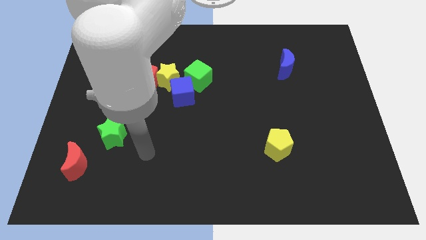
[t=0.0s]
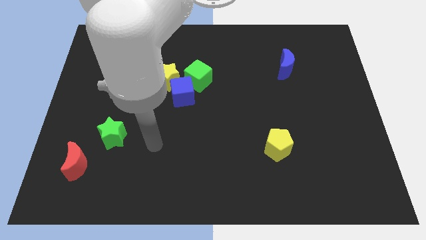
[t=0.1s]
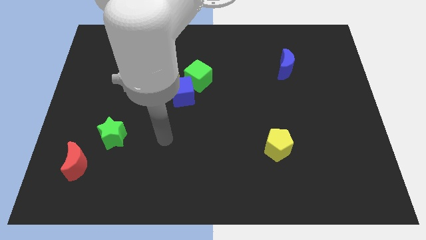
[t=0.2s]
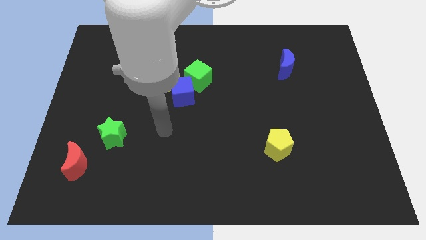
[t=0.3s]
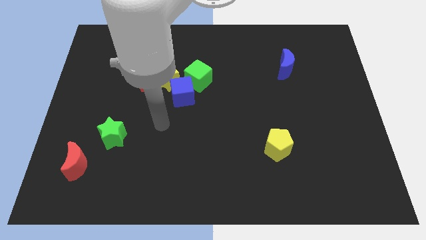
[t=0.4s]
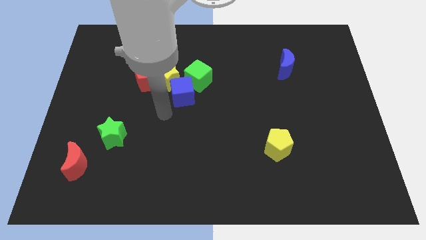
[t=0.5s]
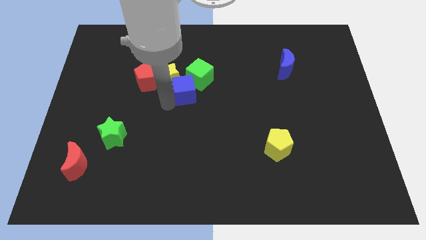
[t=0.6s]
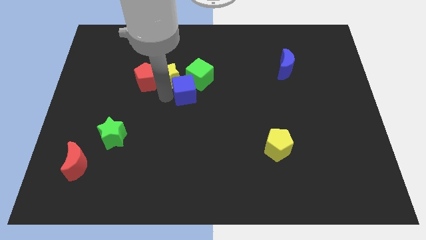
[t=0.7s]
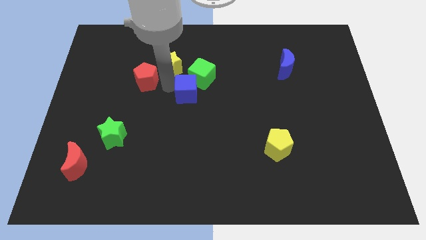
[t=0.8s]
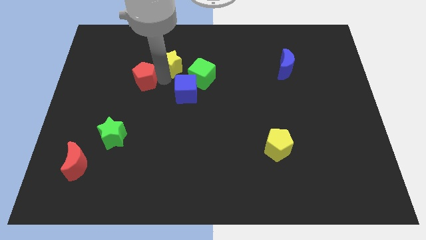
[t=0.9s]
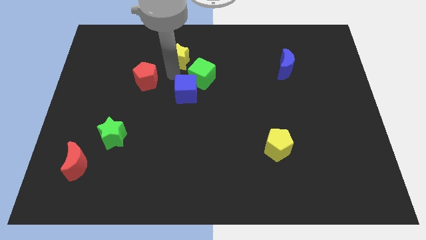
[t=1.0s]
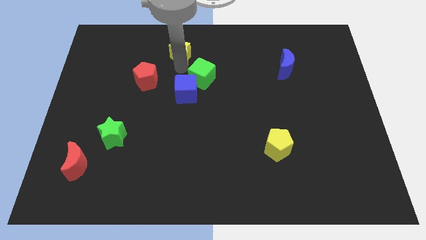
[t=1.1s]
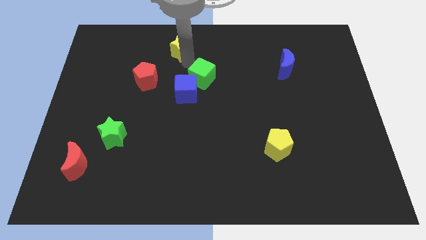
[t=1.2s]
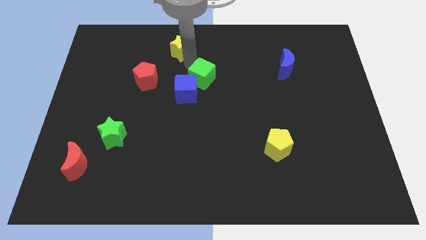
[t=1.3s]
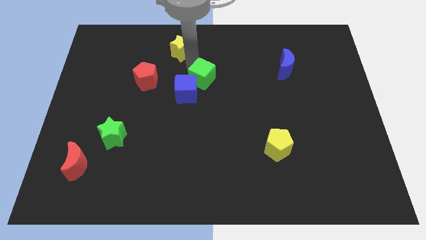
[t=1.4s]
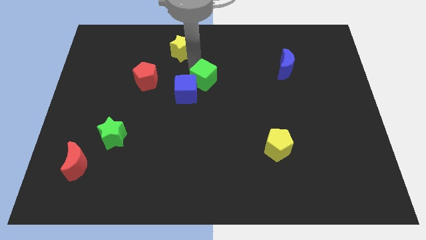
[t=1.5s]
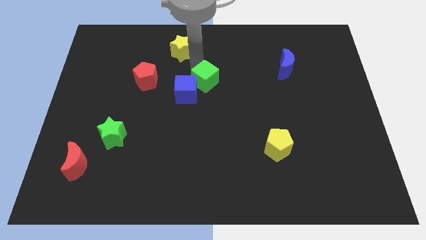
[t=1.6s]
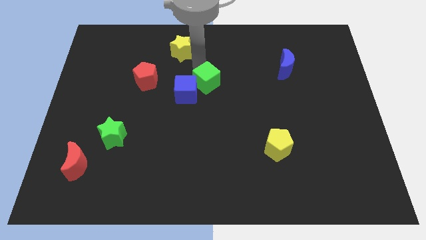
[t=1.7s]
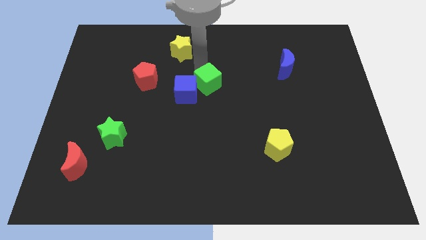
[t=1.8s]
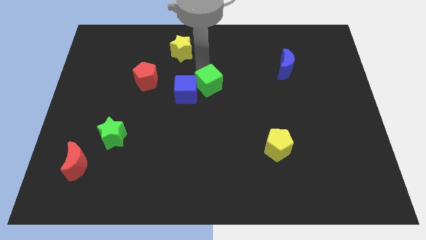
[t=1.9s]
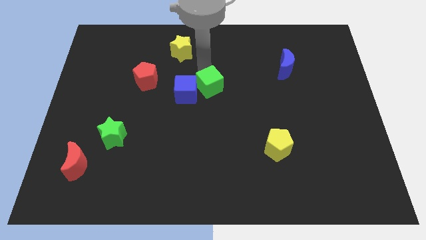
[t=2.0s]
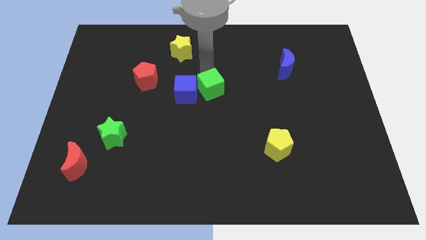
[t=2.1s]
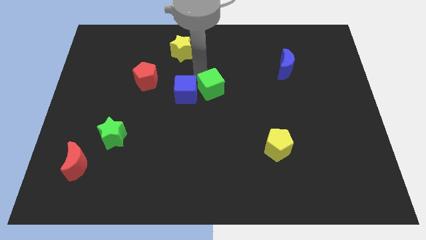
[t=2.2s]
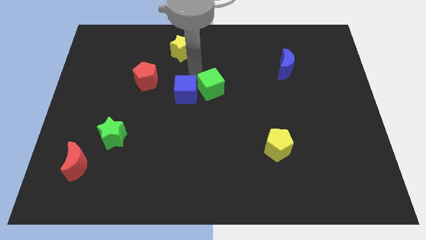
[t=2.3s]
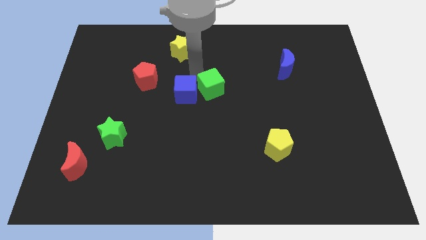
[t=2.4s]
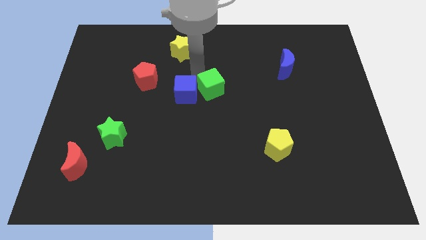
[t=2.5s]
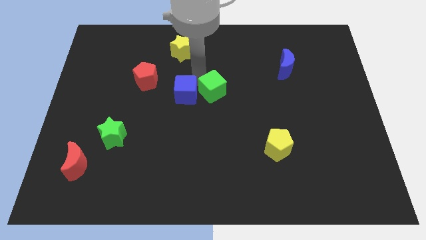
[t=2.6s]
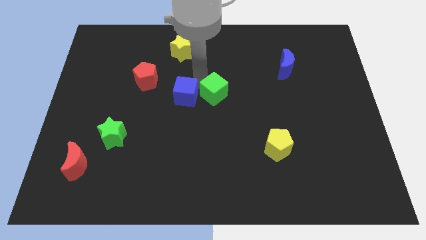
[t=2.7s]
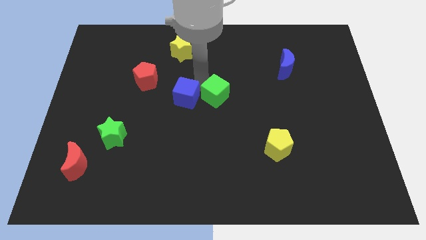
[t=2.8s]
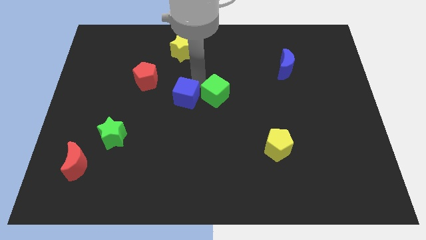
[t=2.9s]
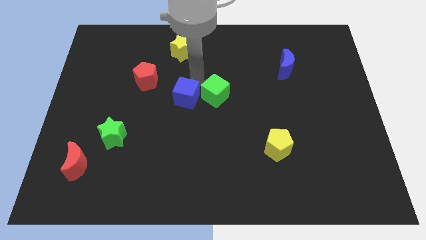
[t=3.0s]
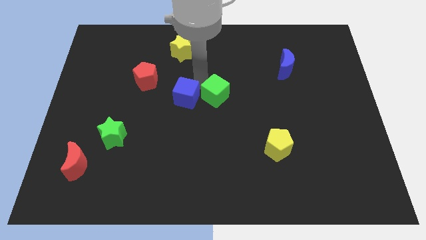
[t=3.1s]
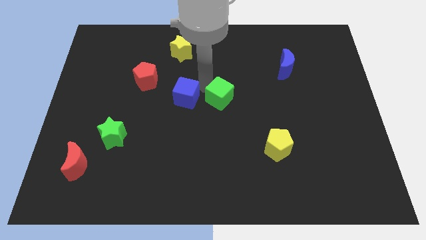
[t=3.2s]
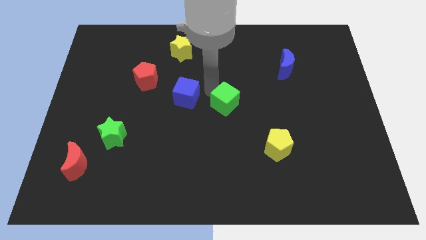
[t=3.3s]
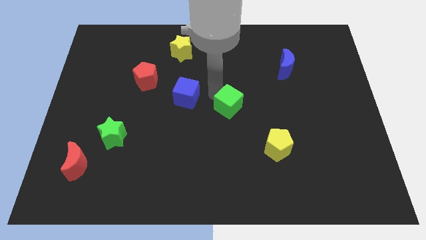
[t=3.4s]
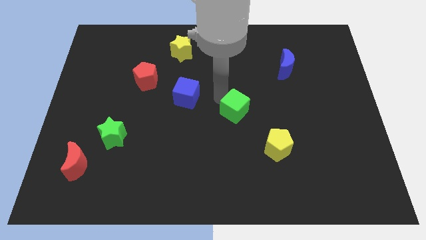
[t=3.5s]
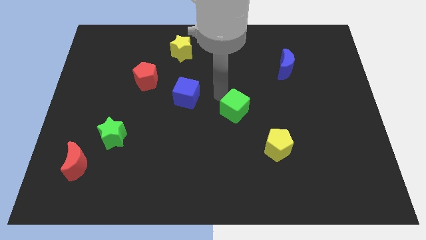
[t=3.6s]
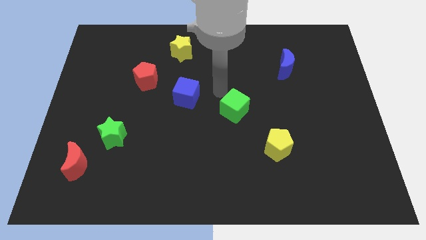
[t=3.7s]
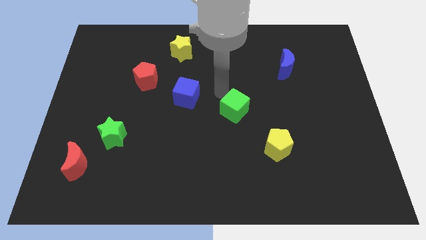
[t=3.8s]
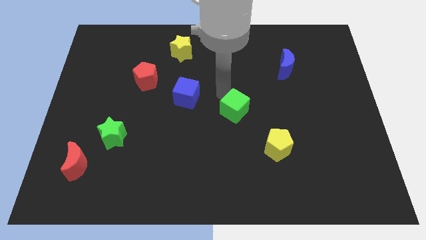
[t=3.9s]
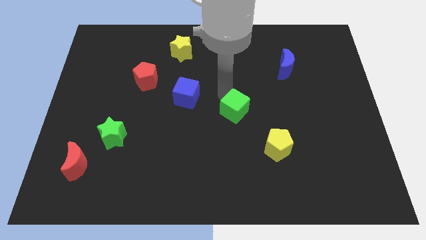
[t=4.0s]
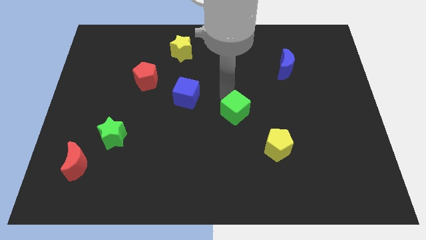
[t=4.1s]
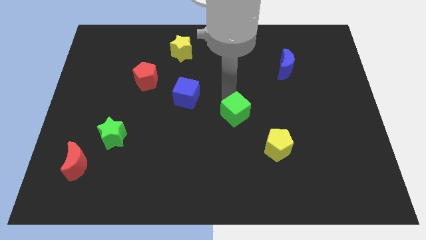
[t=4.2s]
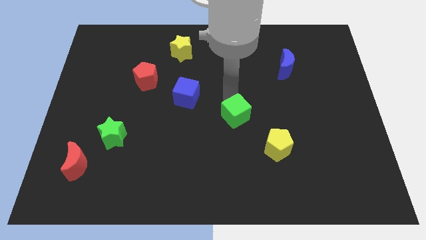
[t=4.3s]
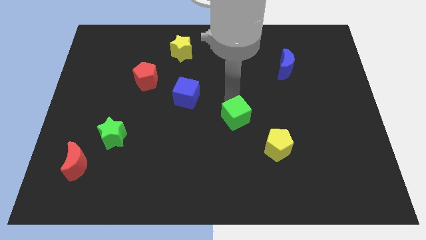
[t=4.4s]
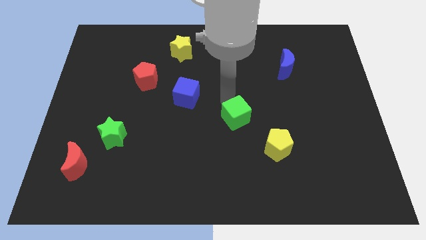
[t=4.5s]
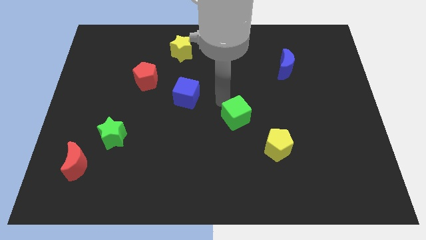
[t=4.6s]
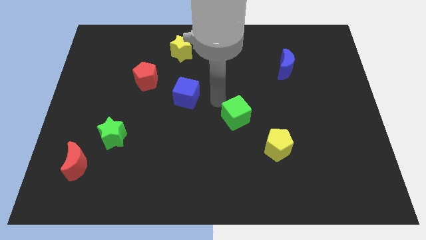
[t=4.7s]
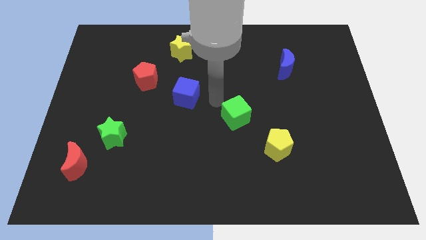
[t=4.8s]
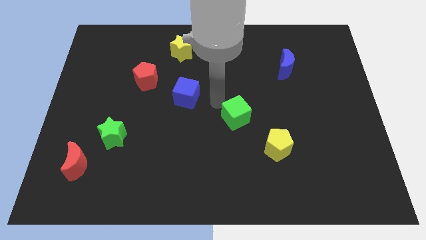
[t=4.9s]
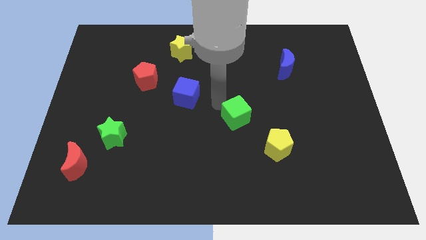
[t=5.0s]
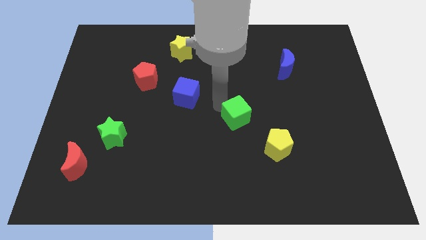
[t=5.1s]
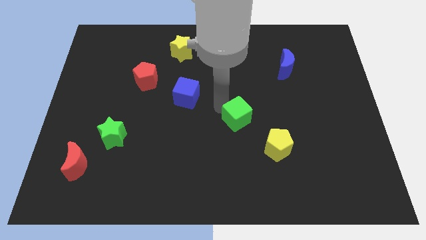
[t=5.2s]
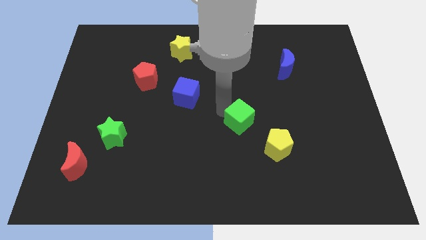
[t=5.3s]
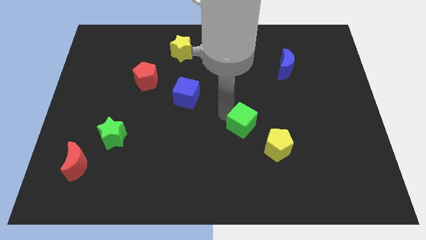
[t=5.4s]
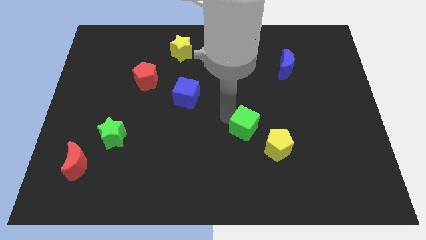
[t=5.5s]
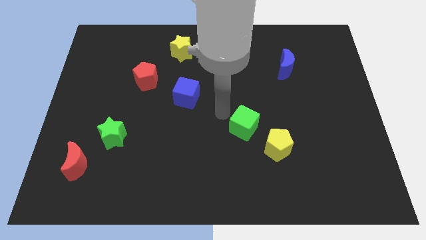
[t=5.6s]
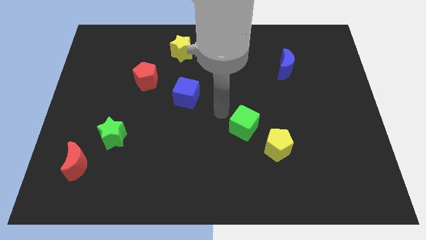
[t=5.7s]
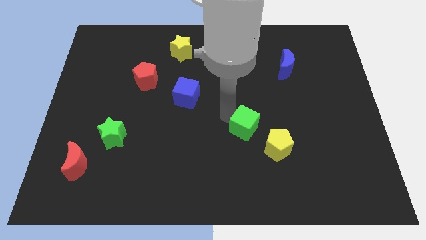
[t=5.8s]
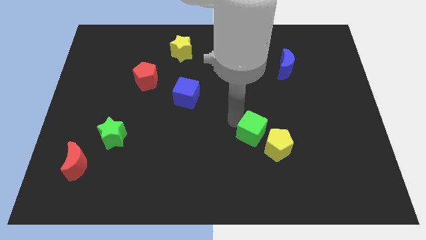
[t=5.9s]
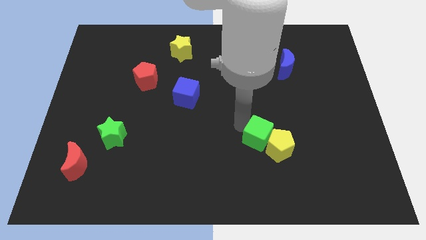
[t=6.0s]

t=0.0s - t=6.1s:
move the green cube next to the yellow pentagon

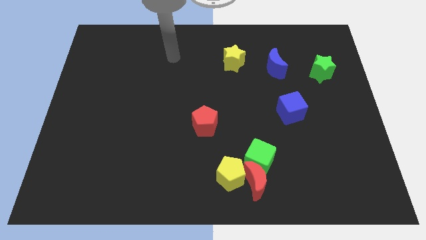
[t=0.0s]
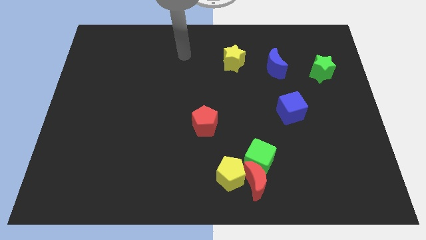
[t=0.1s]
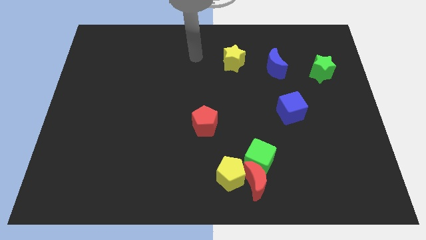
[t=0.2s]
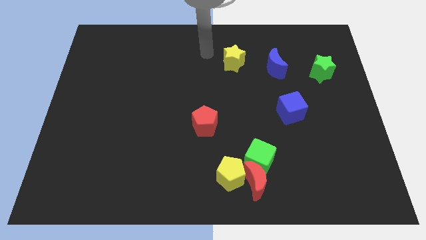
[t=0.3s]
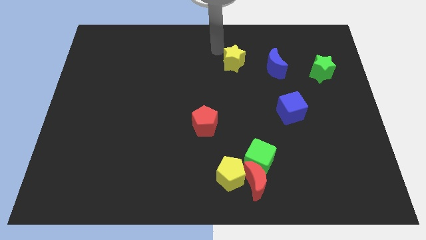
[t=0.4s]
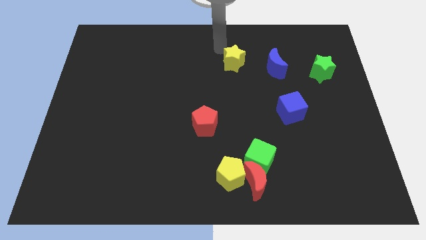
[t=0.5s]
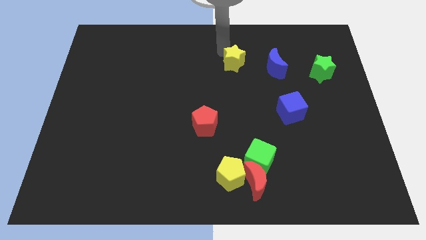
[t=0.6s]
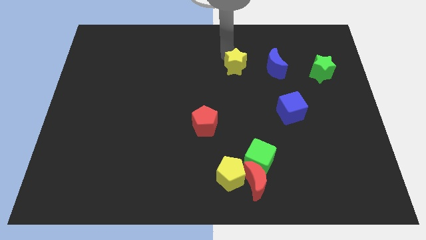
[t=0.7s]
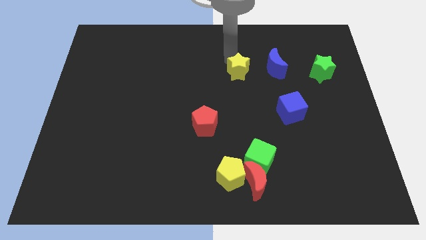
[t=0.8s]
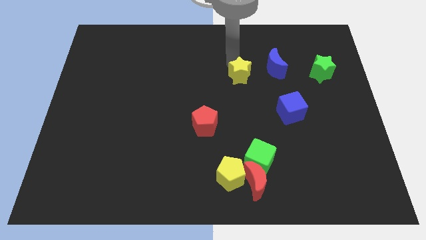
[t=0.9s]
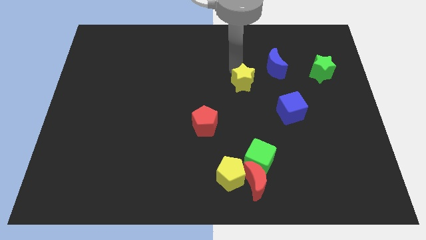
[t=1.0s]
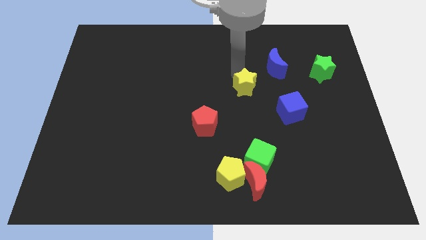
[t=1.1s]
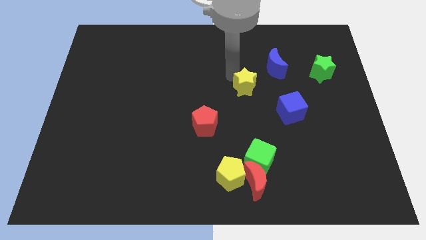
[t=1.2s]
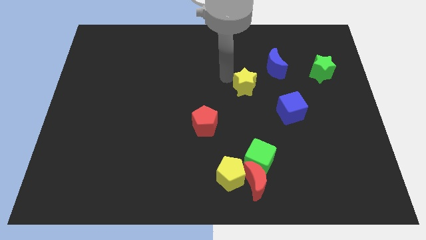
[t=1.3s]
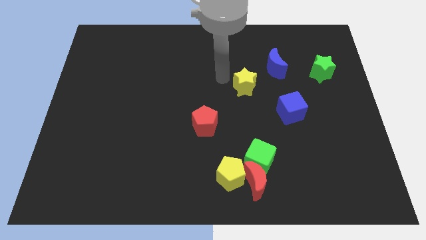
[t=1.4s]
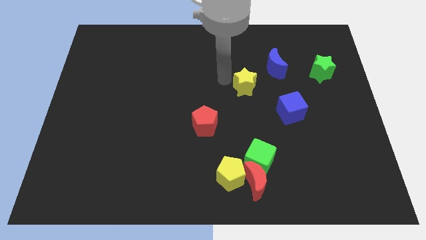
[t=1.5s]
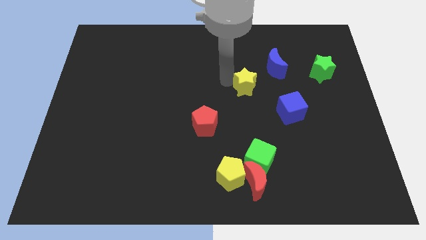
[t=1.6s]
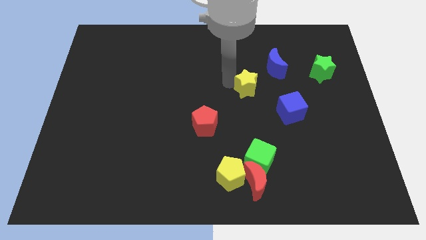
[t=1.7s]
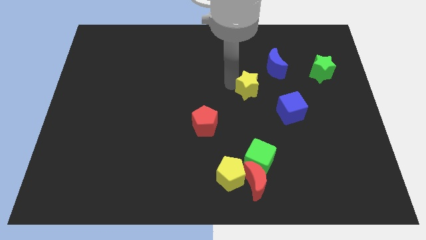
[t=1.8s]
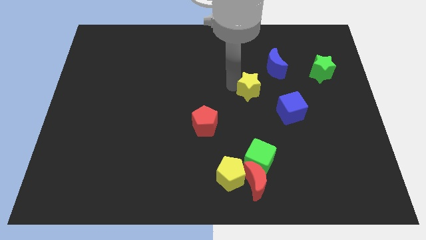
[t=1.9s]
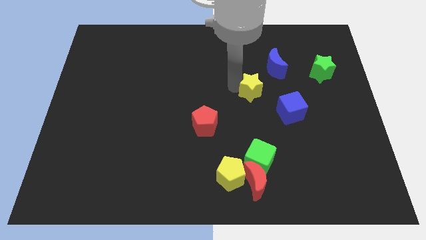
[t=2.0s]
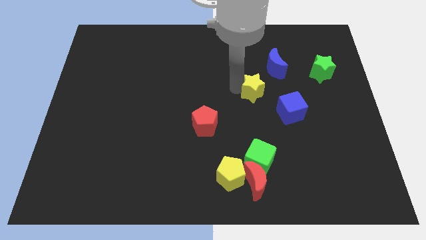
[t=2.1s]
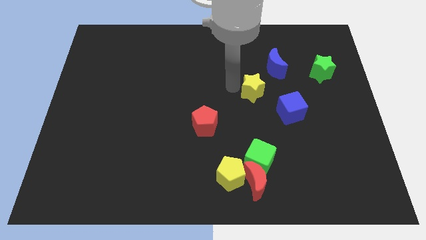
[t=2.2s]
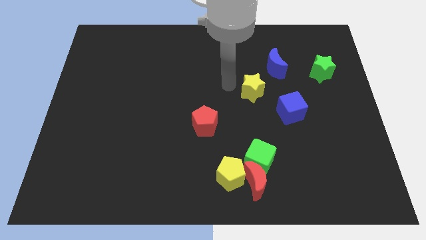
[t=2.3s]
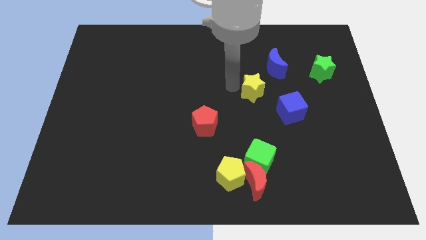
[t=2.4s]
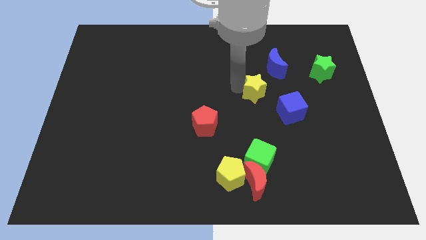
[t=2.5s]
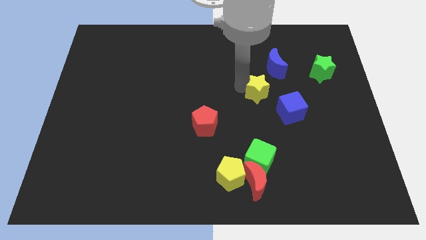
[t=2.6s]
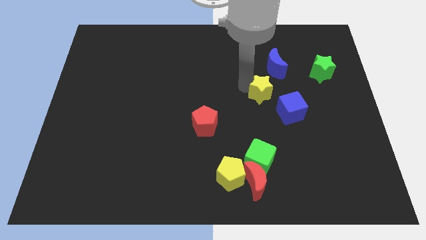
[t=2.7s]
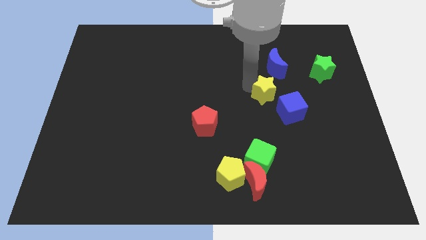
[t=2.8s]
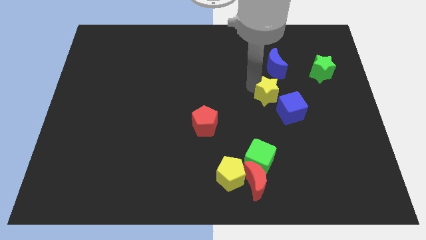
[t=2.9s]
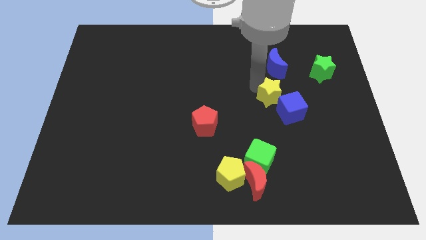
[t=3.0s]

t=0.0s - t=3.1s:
slide the yellow star close to the blue cube
